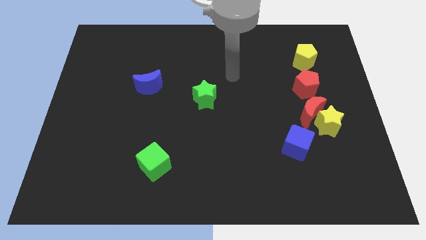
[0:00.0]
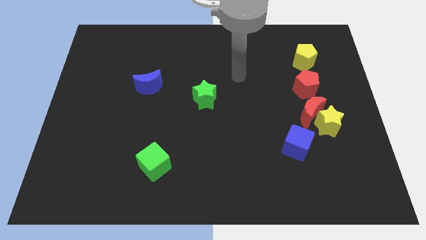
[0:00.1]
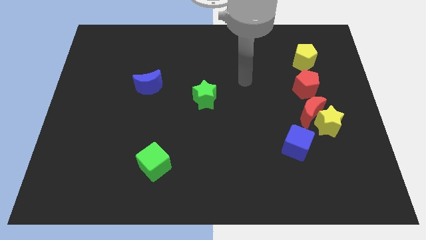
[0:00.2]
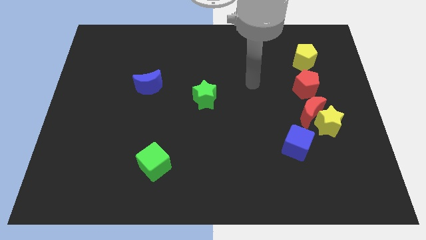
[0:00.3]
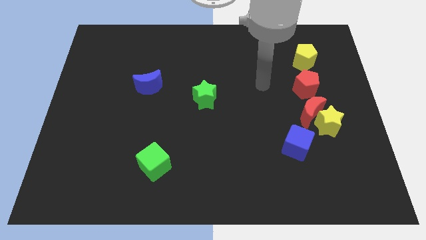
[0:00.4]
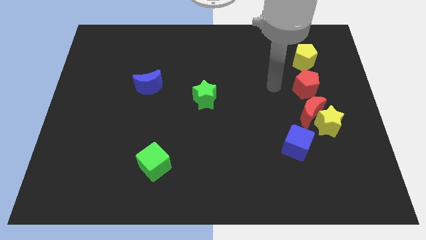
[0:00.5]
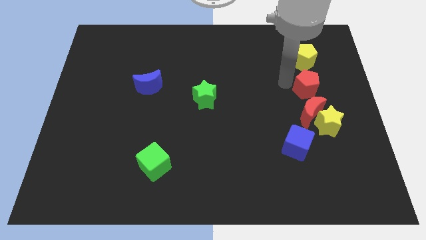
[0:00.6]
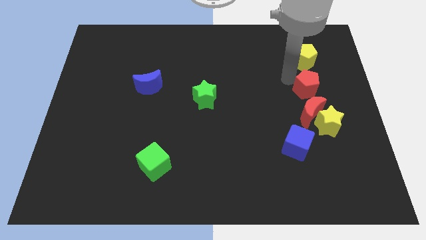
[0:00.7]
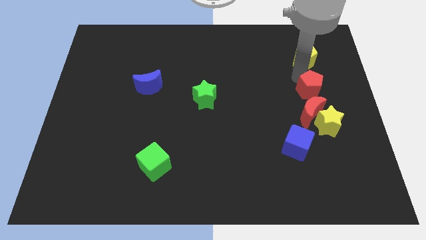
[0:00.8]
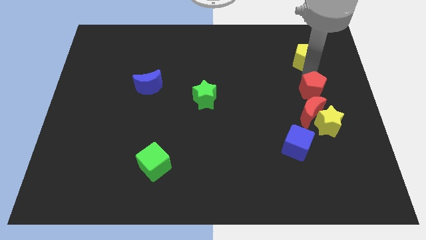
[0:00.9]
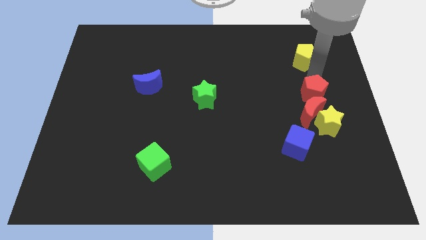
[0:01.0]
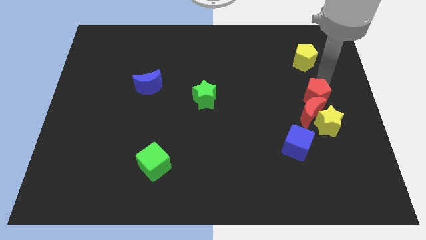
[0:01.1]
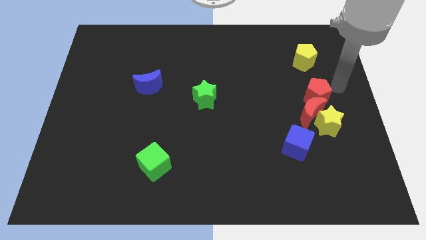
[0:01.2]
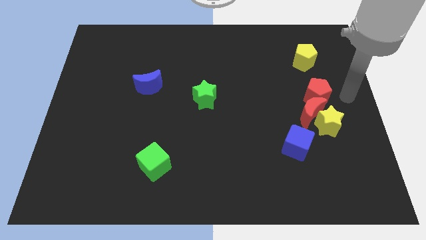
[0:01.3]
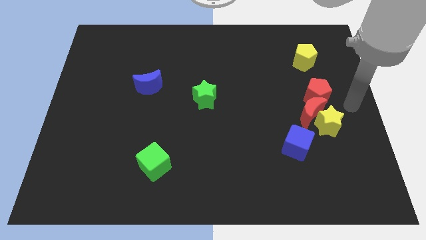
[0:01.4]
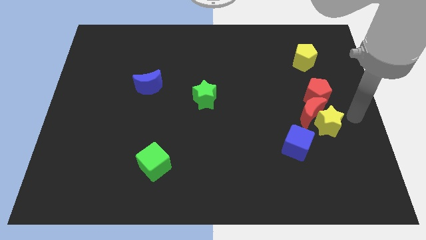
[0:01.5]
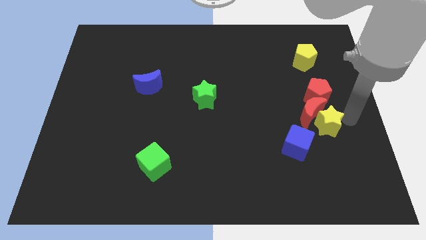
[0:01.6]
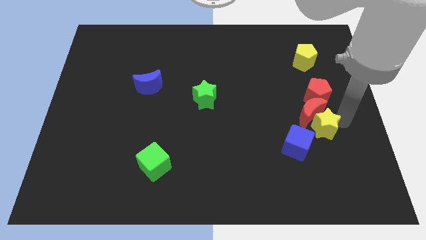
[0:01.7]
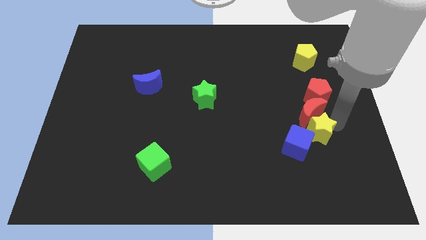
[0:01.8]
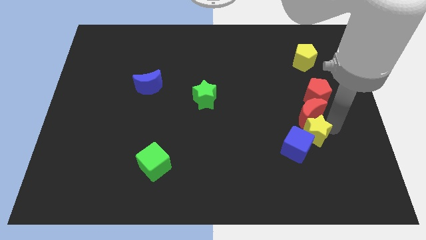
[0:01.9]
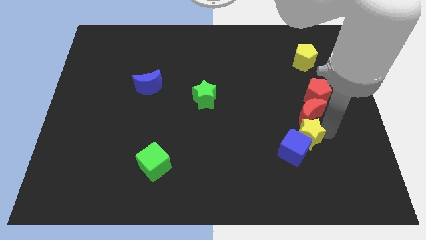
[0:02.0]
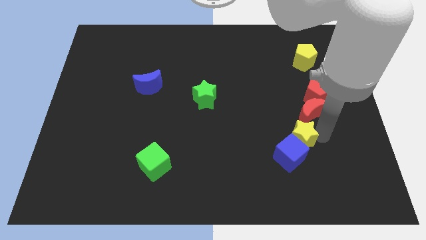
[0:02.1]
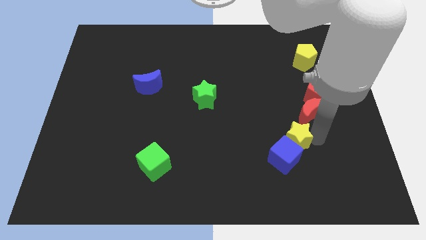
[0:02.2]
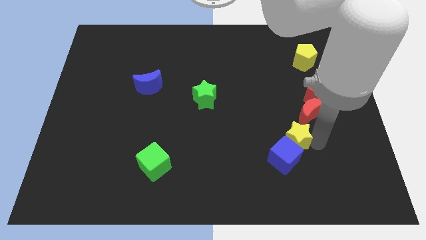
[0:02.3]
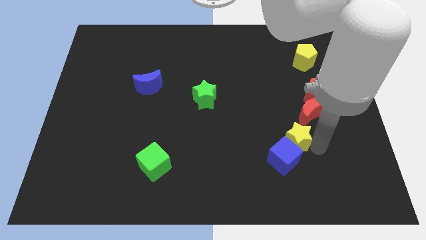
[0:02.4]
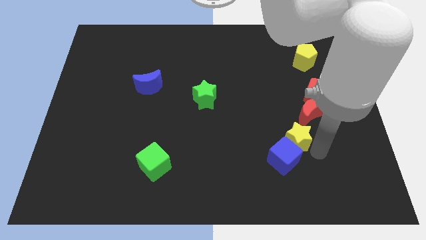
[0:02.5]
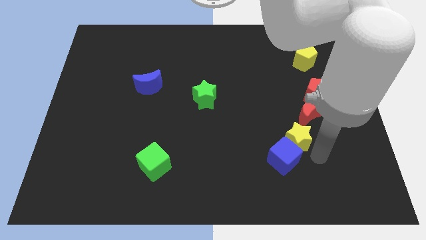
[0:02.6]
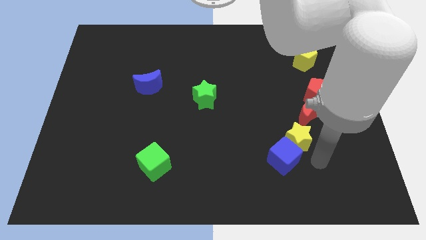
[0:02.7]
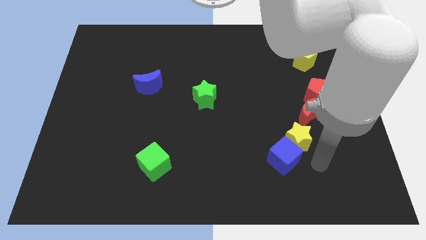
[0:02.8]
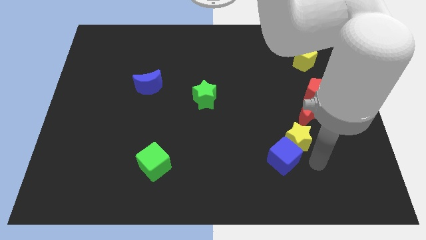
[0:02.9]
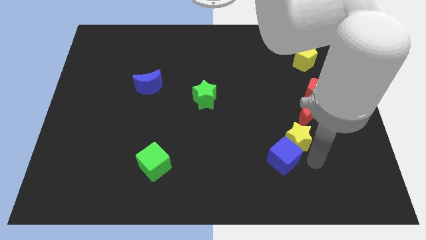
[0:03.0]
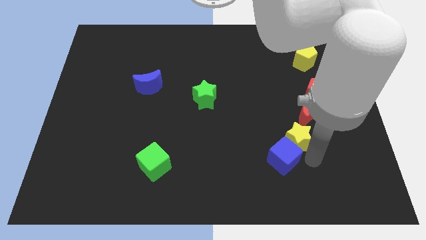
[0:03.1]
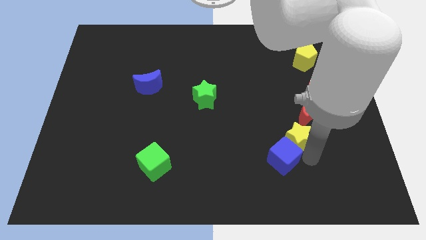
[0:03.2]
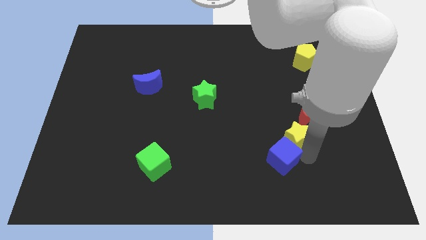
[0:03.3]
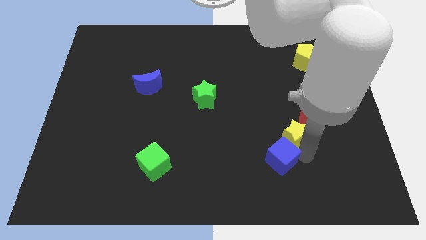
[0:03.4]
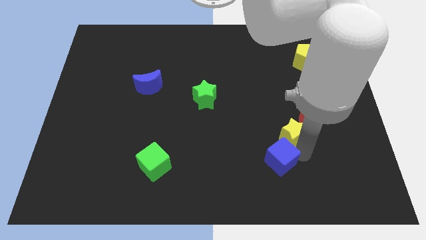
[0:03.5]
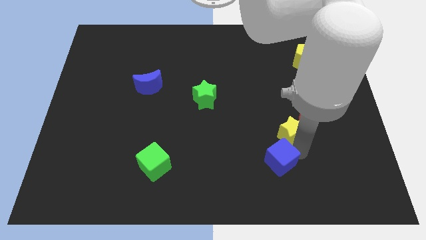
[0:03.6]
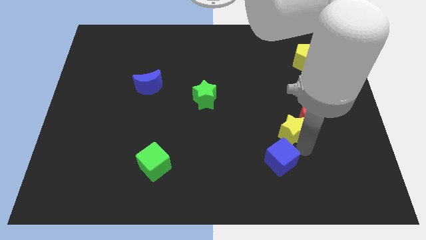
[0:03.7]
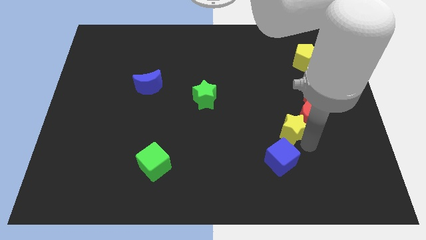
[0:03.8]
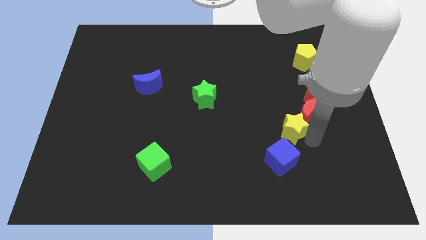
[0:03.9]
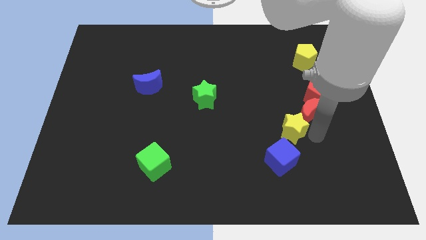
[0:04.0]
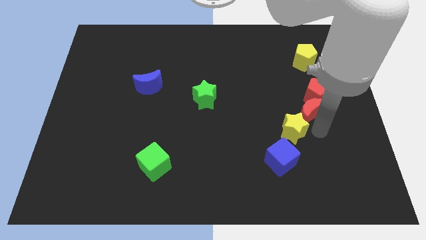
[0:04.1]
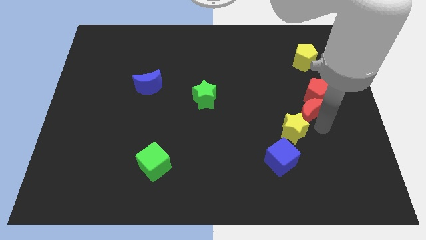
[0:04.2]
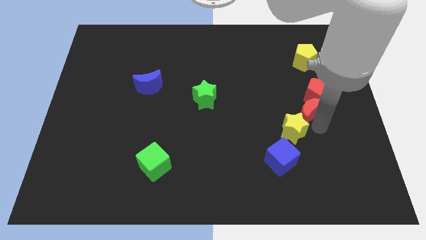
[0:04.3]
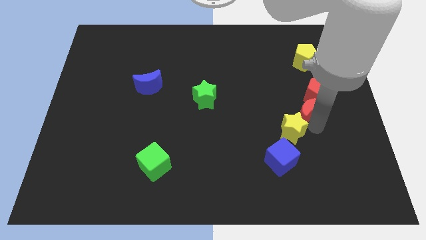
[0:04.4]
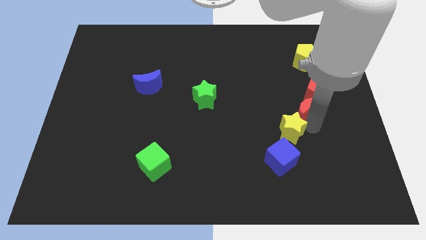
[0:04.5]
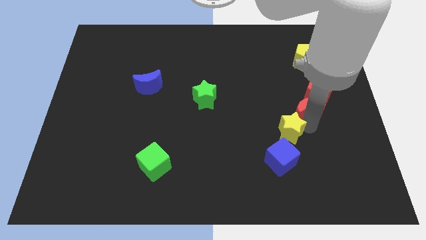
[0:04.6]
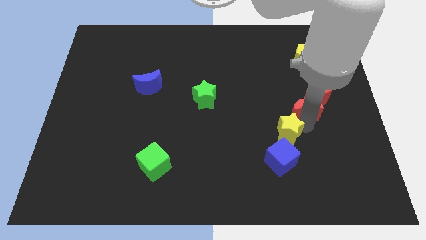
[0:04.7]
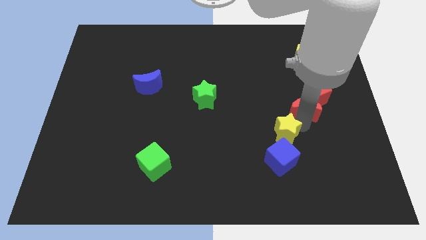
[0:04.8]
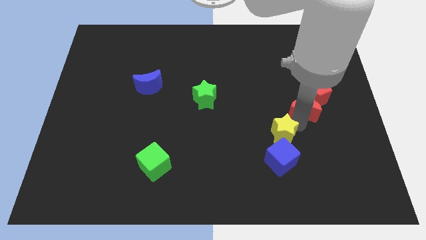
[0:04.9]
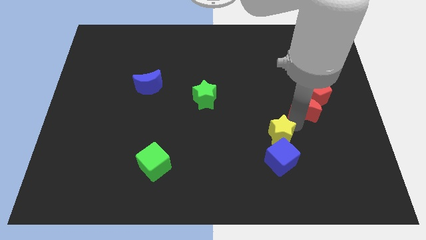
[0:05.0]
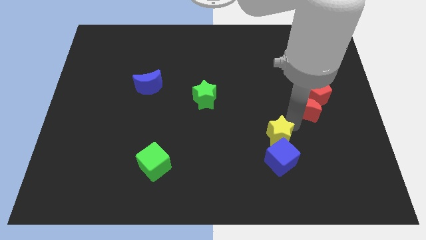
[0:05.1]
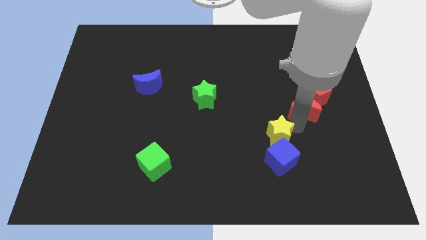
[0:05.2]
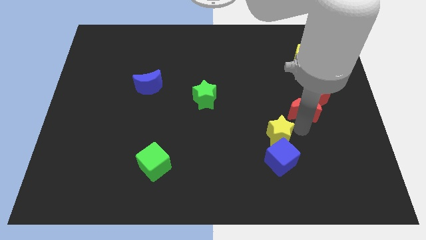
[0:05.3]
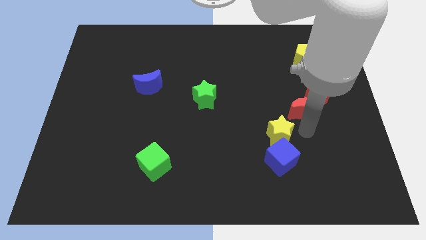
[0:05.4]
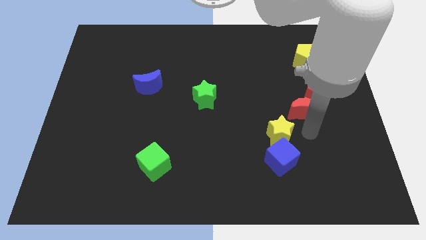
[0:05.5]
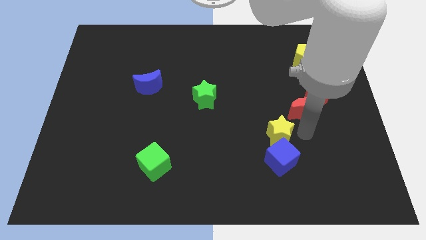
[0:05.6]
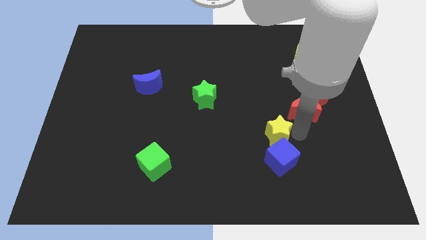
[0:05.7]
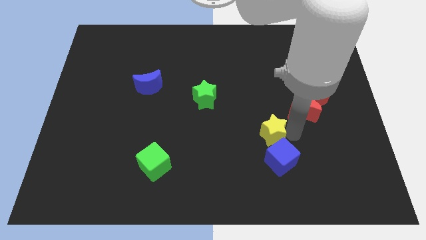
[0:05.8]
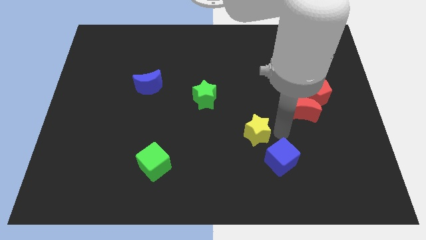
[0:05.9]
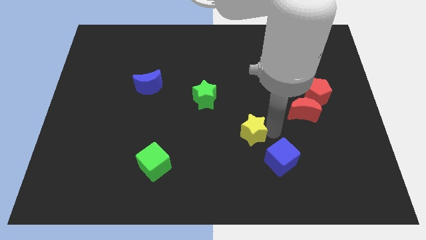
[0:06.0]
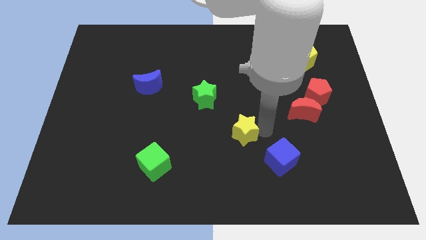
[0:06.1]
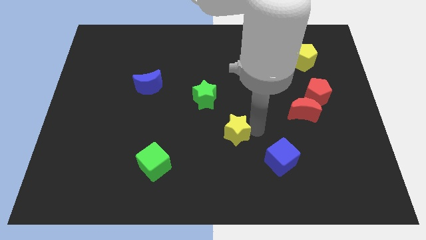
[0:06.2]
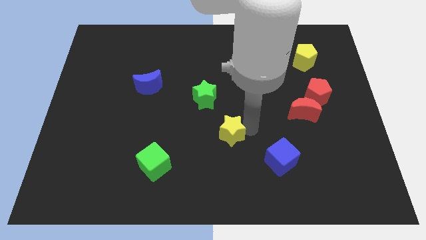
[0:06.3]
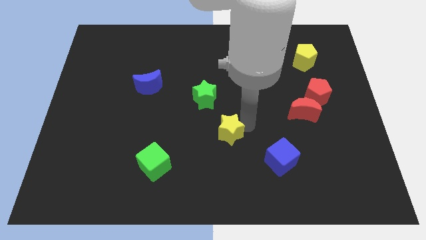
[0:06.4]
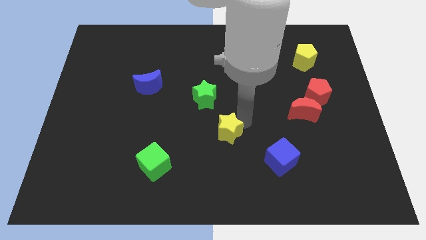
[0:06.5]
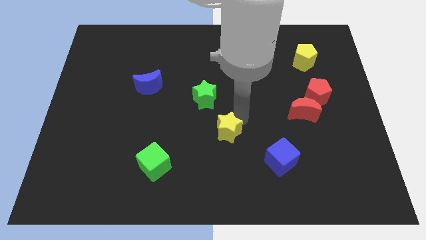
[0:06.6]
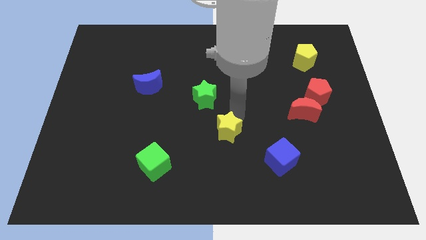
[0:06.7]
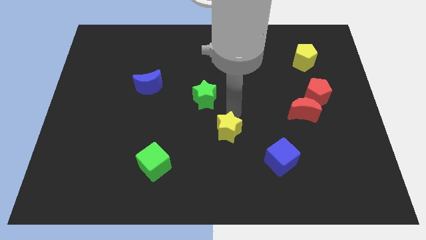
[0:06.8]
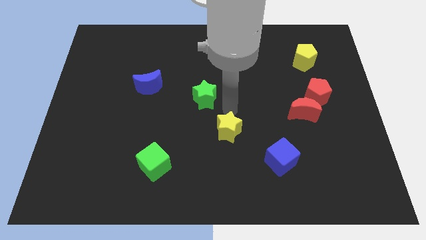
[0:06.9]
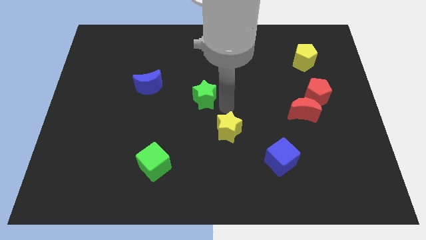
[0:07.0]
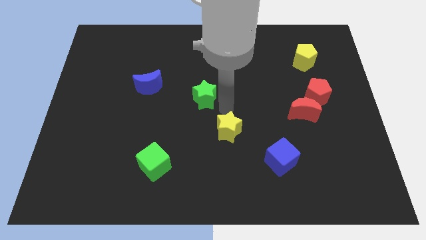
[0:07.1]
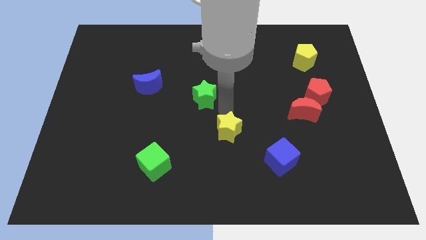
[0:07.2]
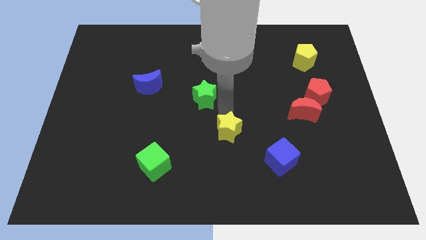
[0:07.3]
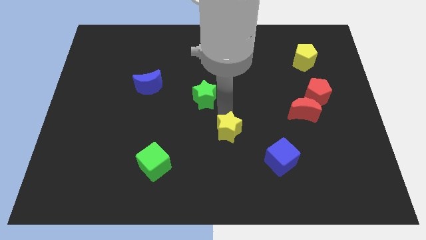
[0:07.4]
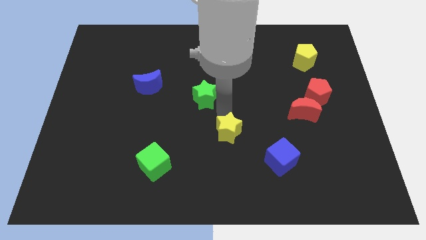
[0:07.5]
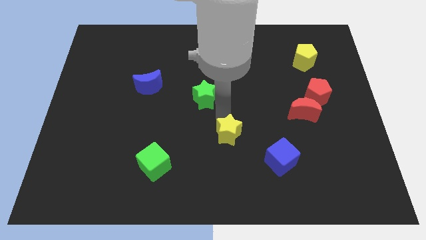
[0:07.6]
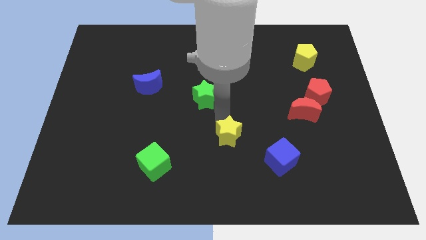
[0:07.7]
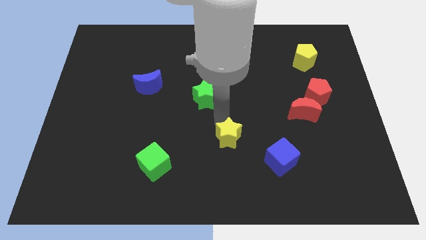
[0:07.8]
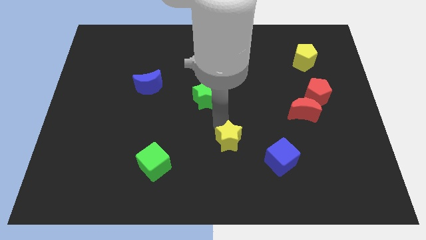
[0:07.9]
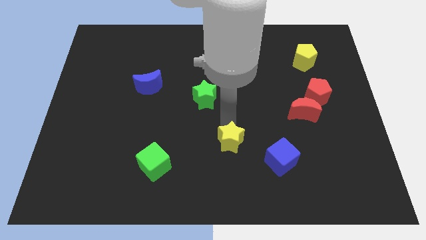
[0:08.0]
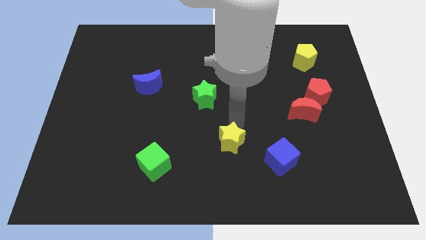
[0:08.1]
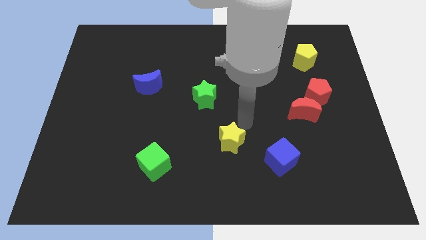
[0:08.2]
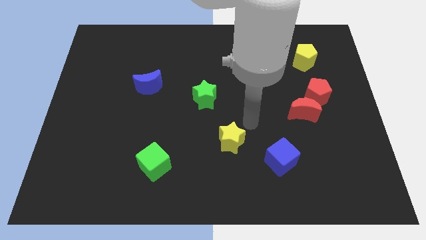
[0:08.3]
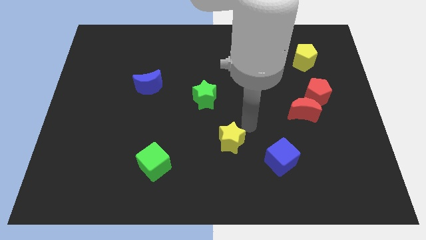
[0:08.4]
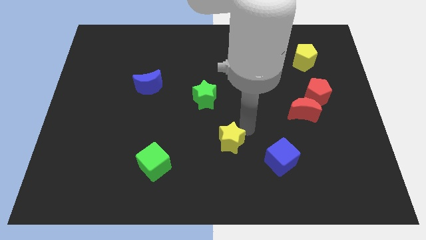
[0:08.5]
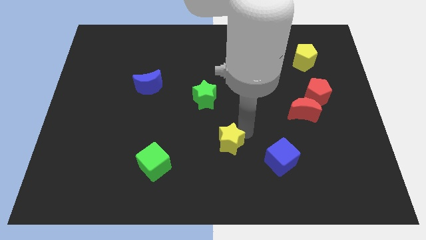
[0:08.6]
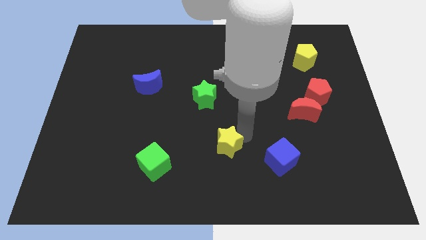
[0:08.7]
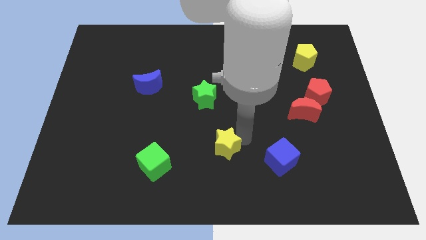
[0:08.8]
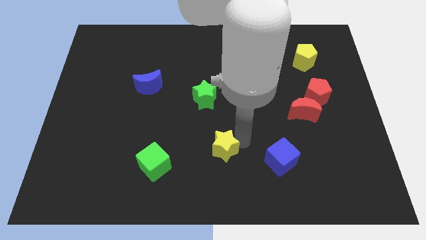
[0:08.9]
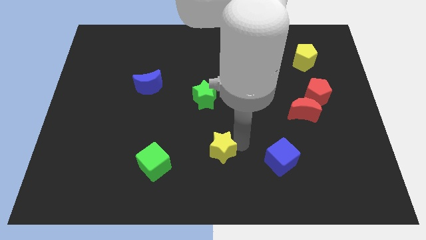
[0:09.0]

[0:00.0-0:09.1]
push the yellow star to the right of the green cube
